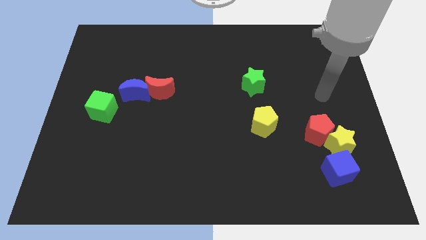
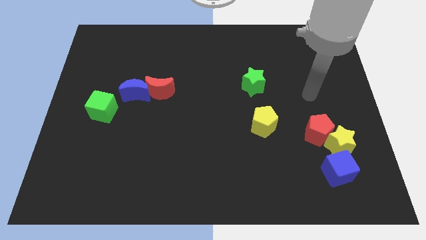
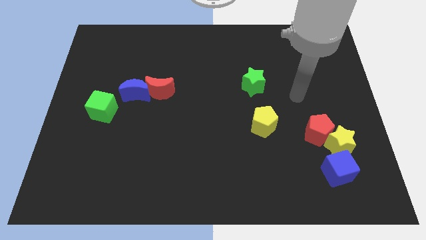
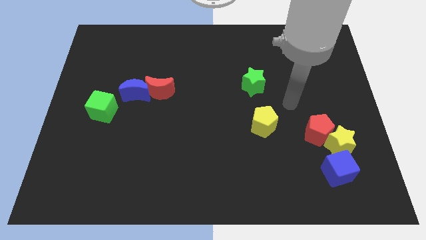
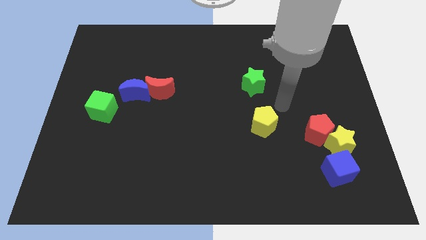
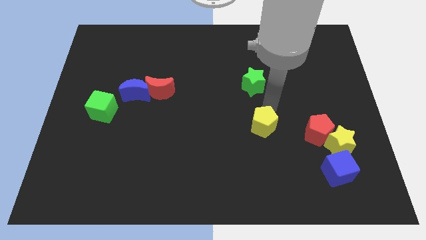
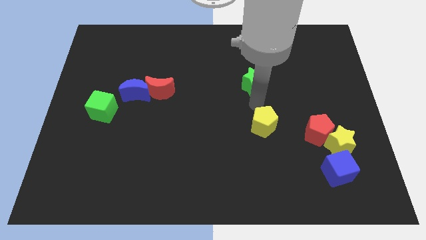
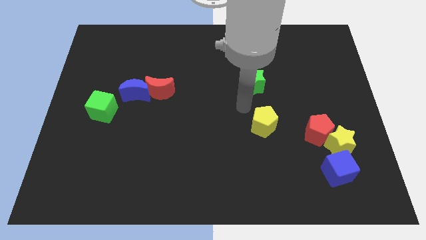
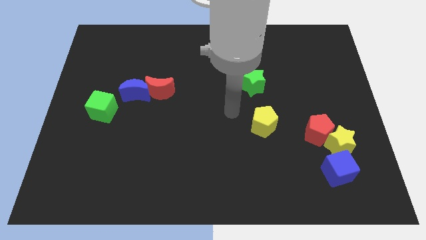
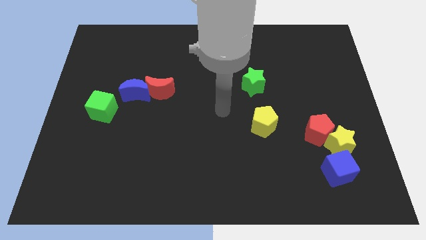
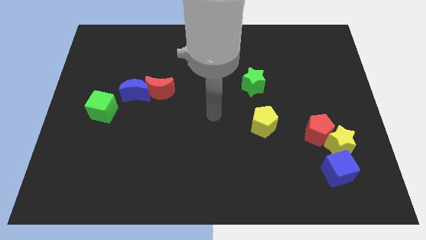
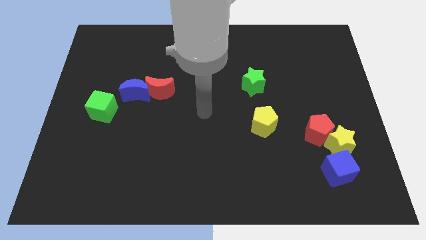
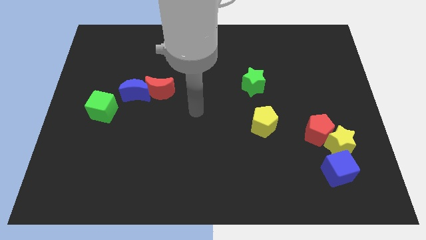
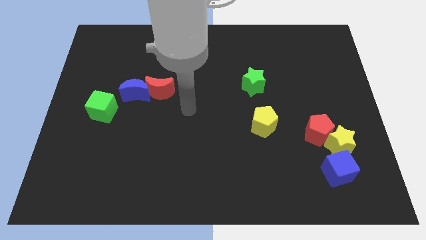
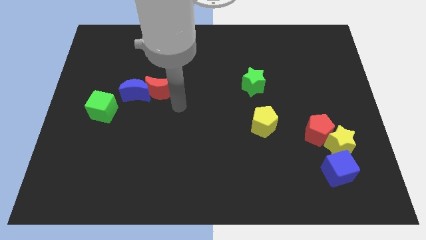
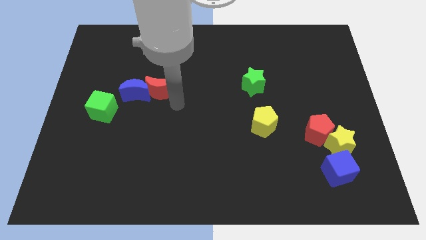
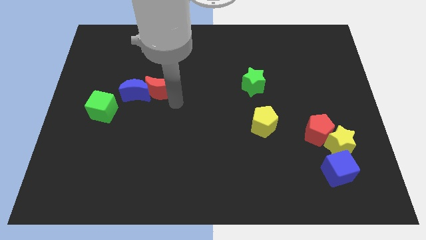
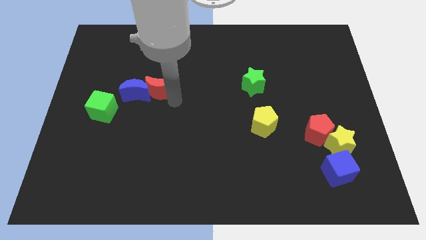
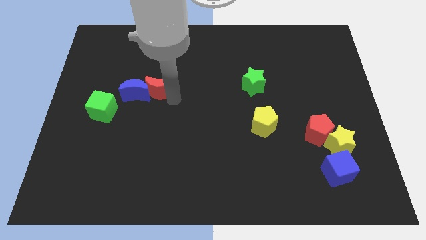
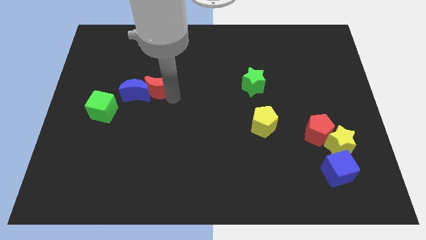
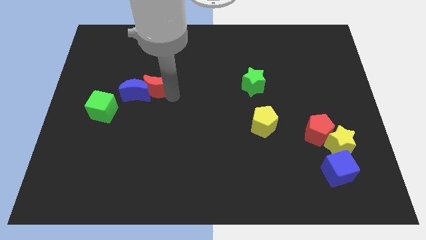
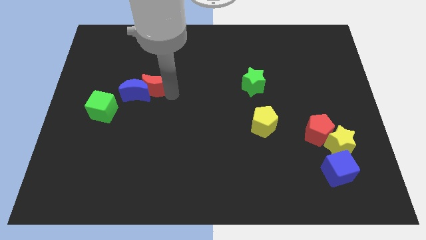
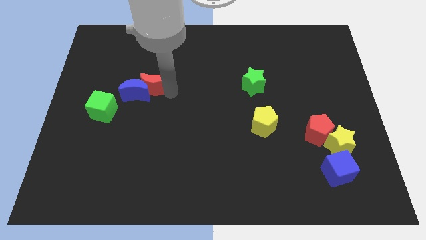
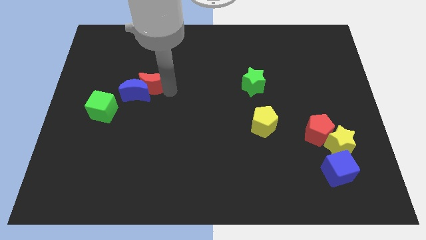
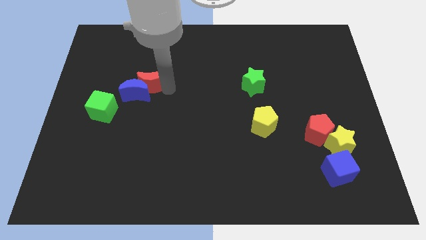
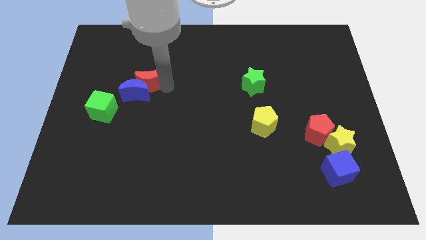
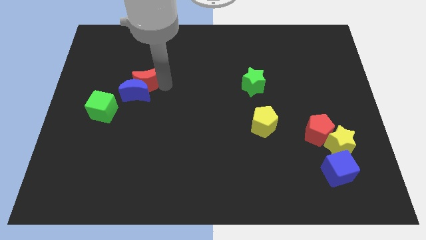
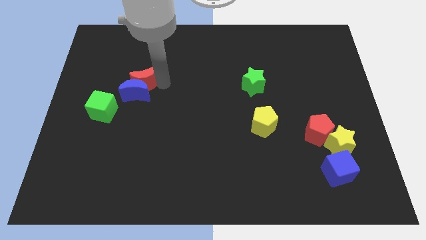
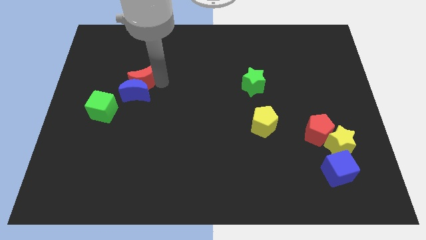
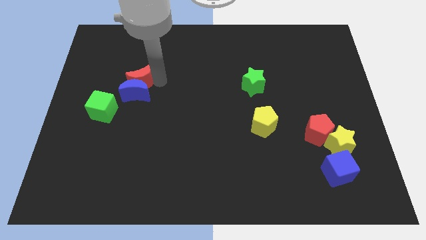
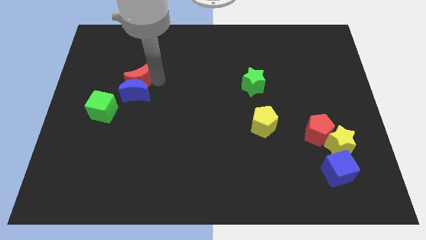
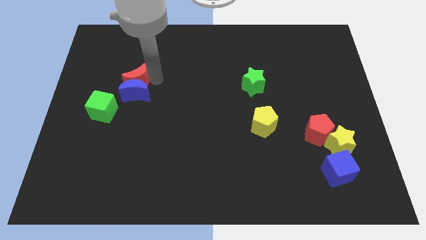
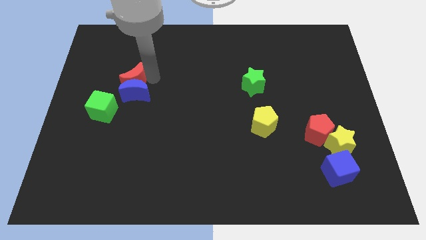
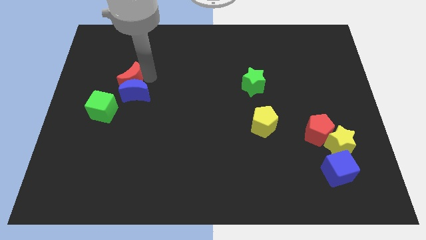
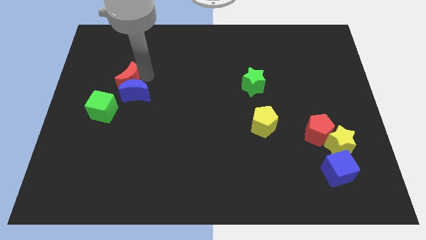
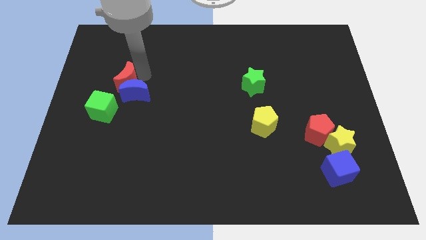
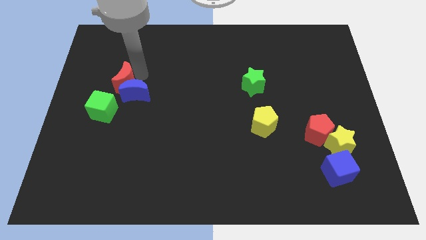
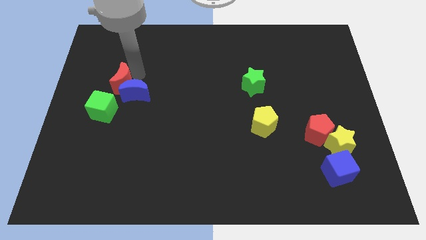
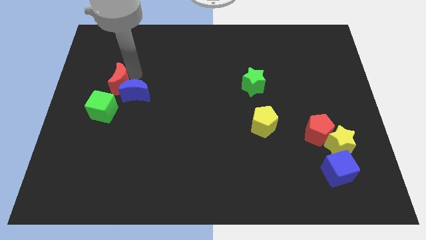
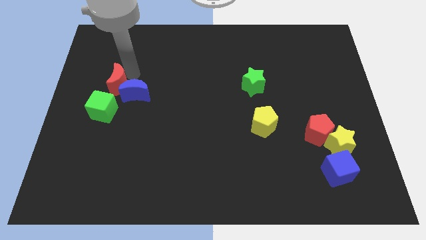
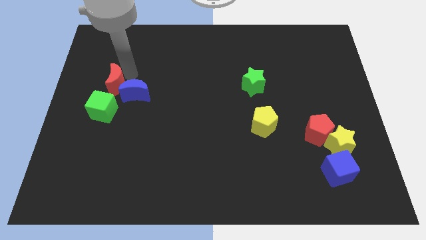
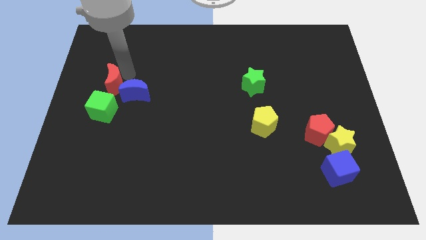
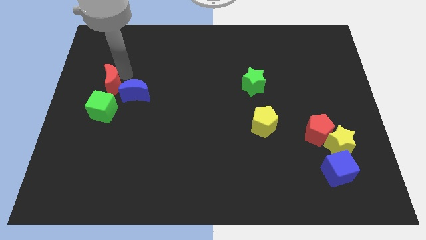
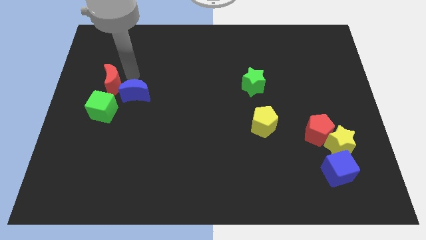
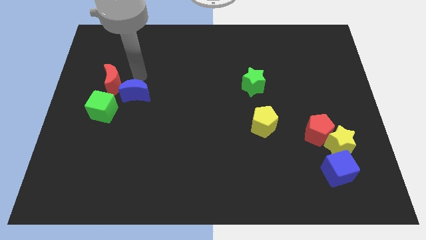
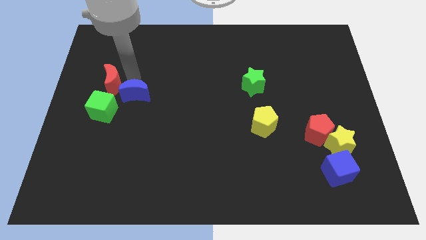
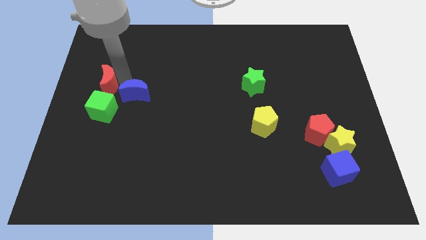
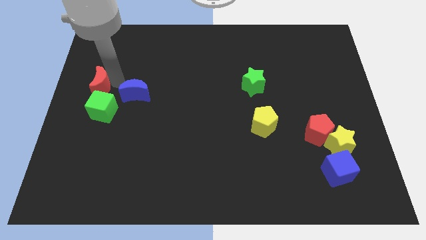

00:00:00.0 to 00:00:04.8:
push the red moon to the center left
